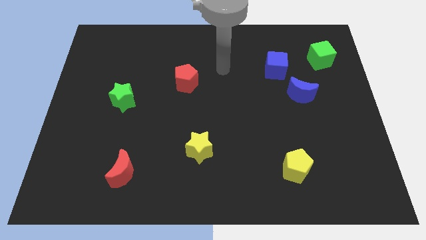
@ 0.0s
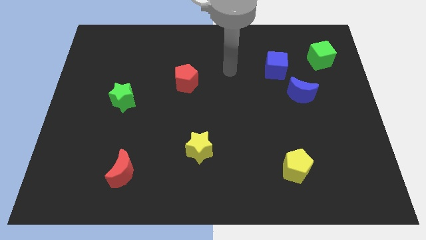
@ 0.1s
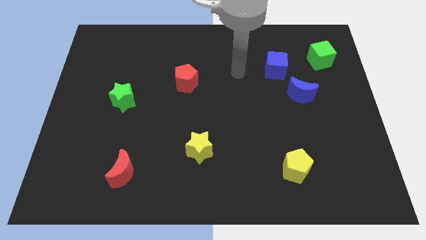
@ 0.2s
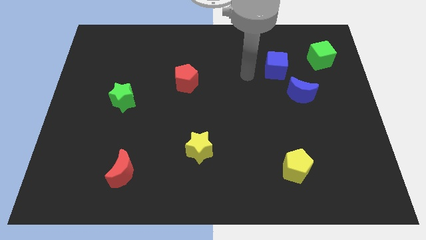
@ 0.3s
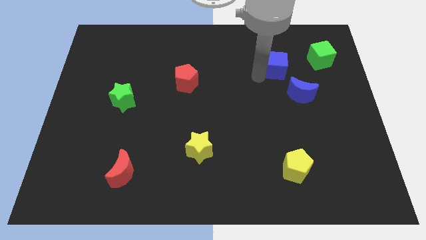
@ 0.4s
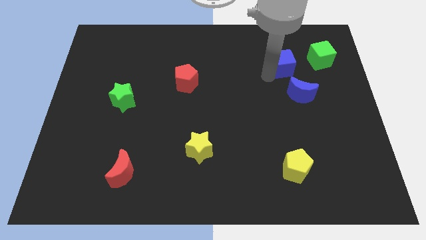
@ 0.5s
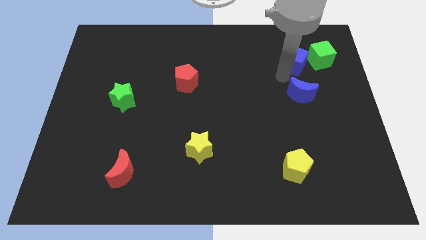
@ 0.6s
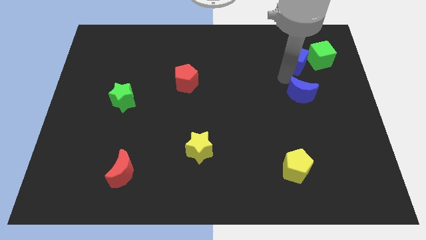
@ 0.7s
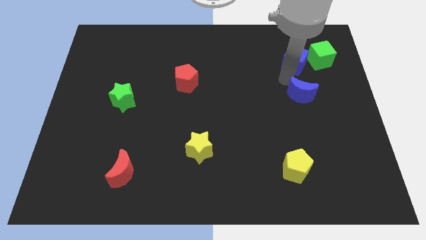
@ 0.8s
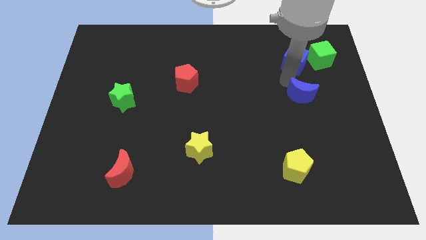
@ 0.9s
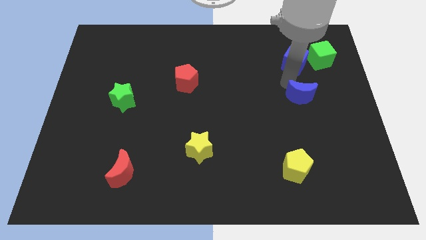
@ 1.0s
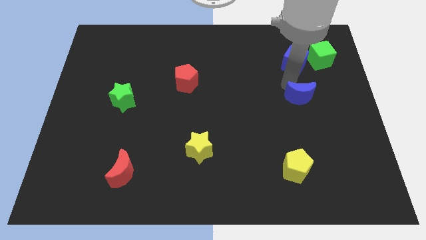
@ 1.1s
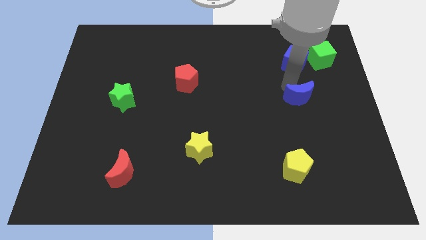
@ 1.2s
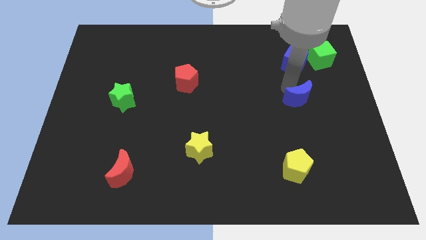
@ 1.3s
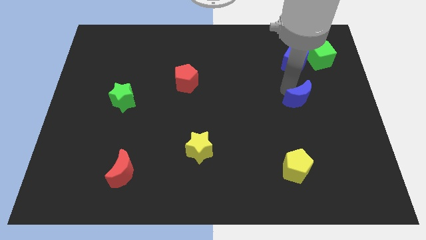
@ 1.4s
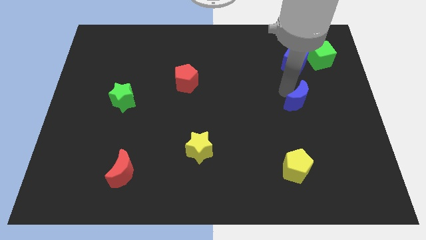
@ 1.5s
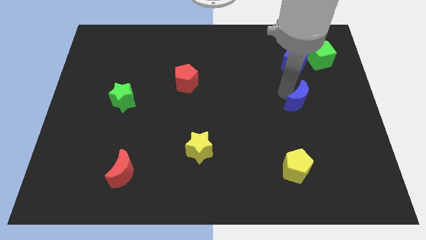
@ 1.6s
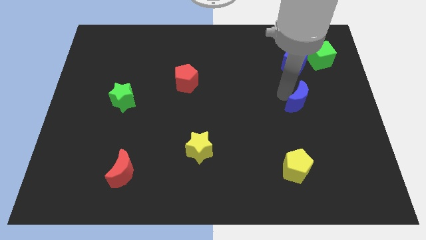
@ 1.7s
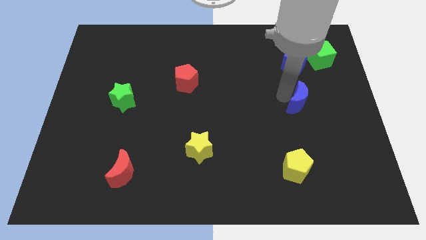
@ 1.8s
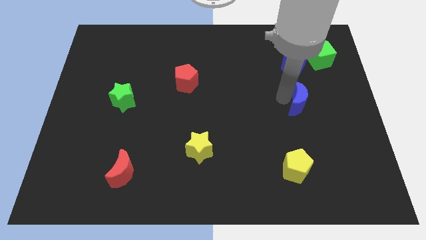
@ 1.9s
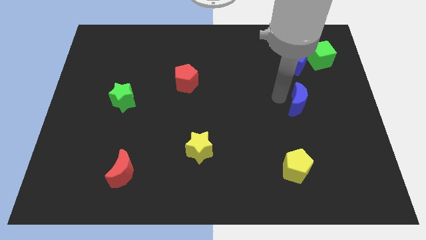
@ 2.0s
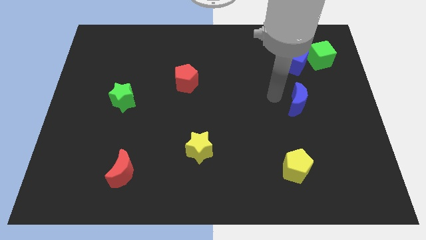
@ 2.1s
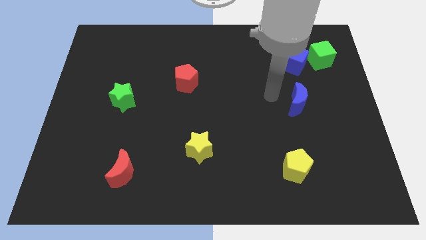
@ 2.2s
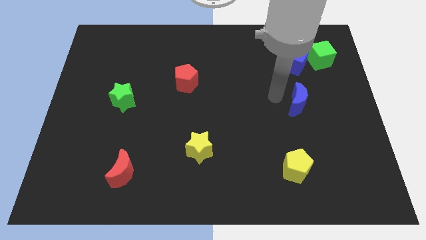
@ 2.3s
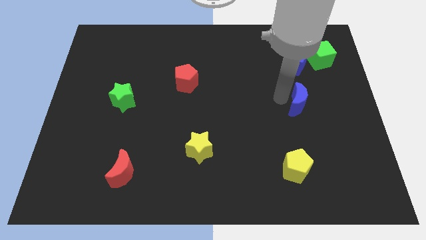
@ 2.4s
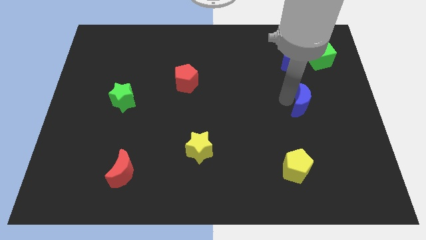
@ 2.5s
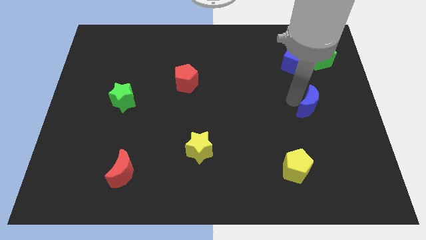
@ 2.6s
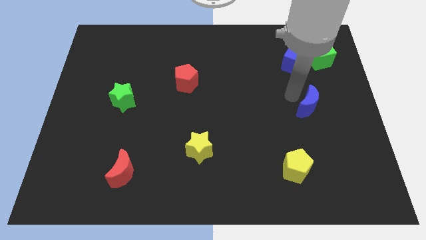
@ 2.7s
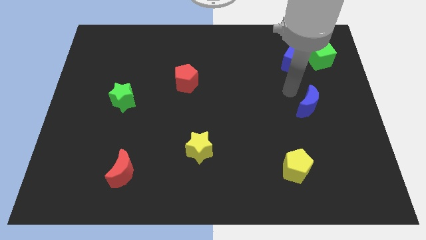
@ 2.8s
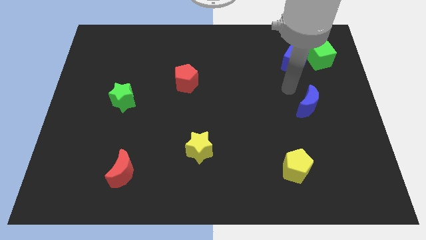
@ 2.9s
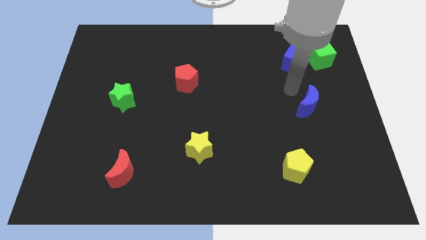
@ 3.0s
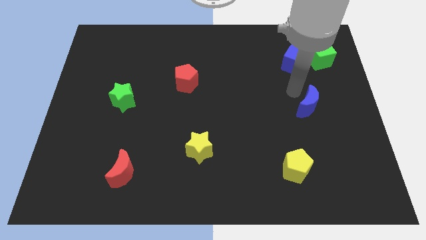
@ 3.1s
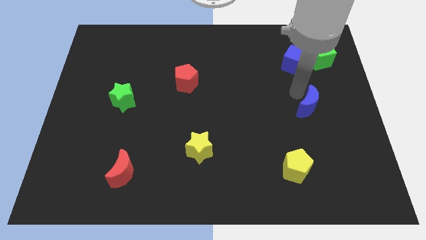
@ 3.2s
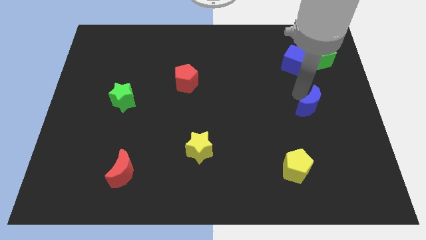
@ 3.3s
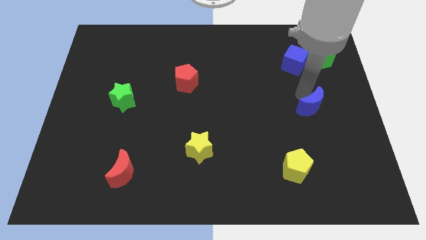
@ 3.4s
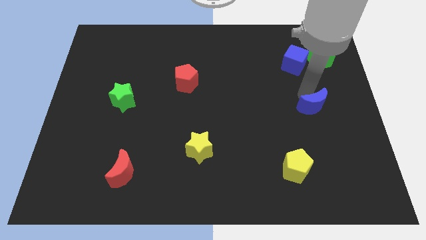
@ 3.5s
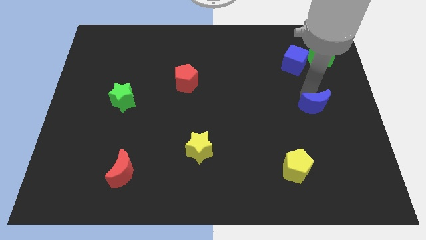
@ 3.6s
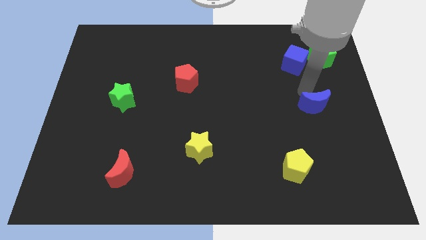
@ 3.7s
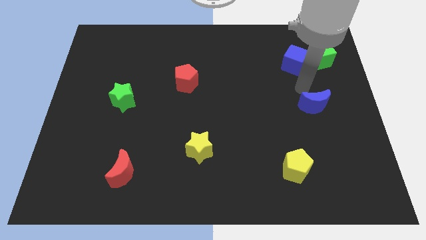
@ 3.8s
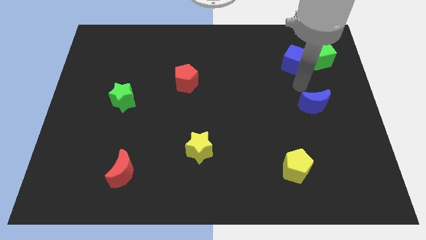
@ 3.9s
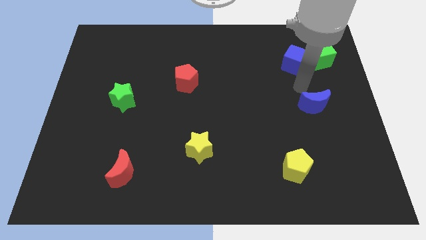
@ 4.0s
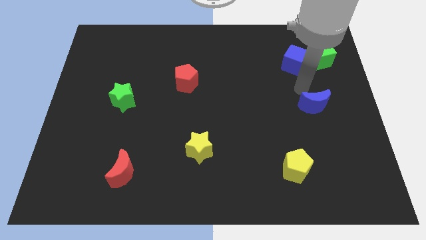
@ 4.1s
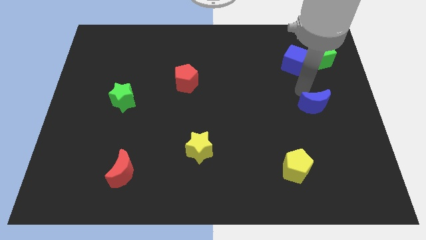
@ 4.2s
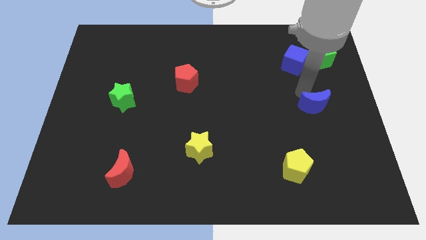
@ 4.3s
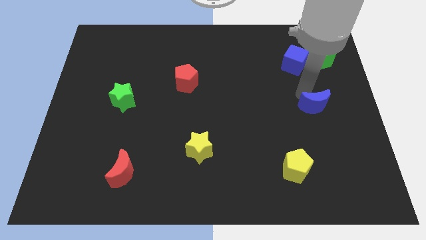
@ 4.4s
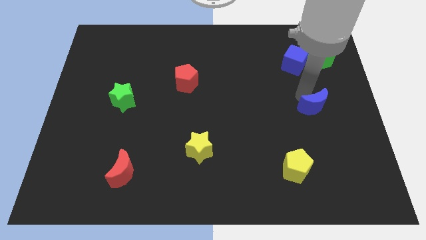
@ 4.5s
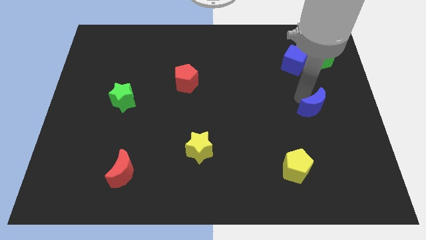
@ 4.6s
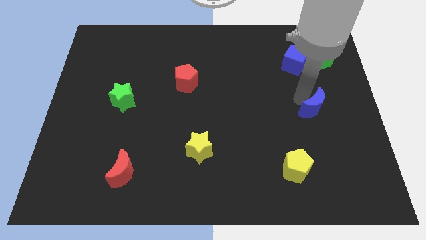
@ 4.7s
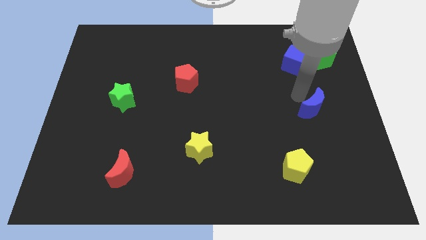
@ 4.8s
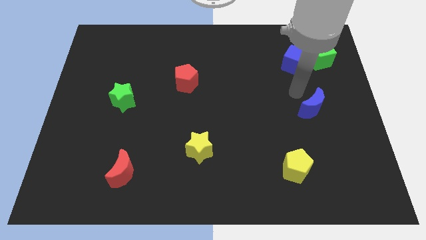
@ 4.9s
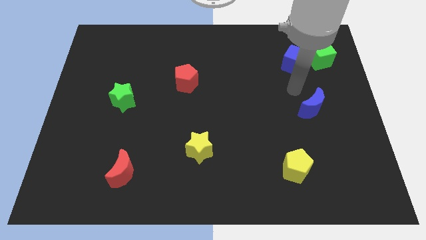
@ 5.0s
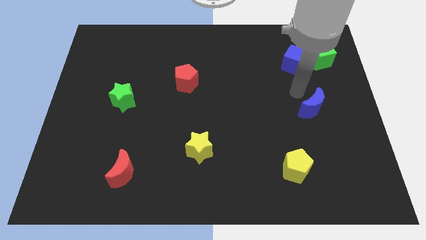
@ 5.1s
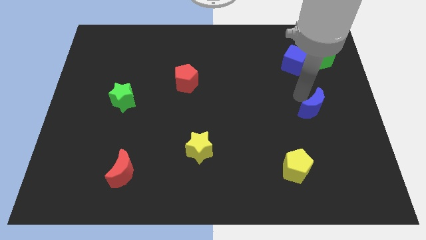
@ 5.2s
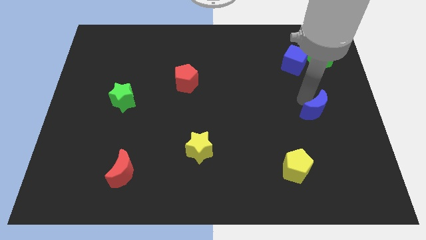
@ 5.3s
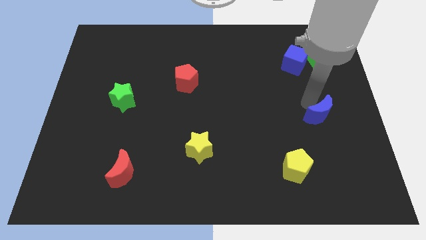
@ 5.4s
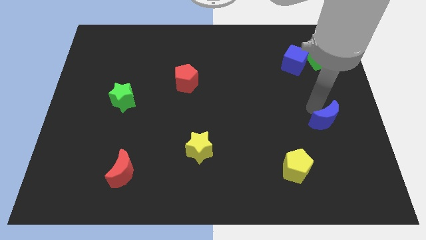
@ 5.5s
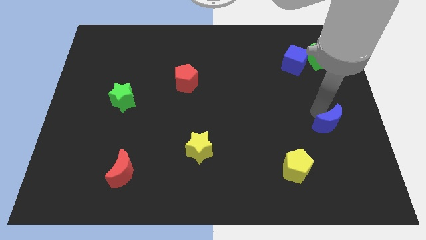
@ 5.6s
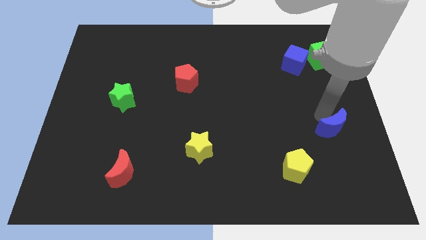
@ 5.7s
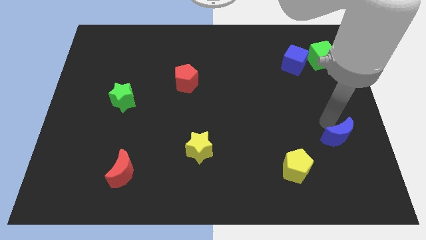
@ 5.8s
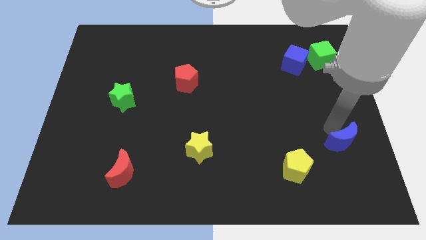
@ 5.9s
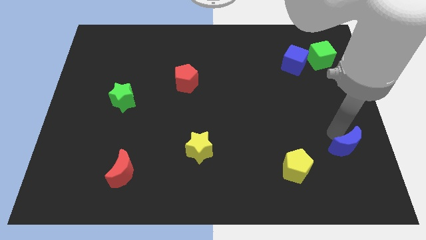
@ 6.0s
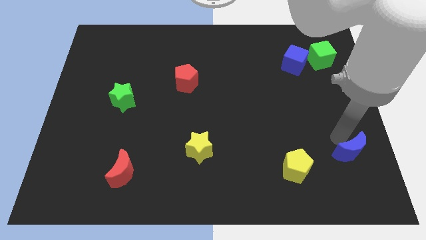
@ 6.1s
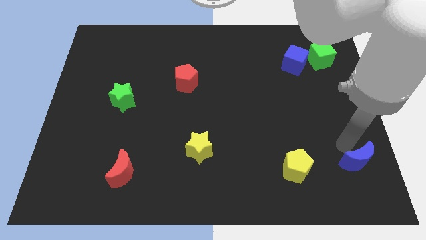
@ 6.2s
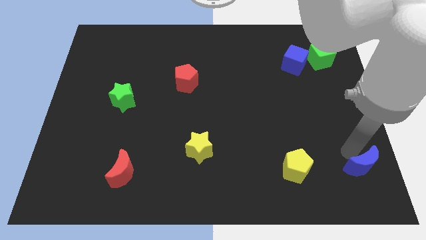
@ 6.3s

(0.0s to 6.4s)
put the blue moon to the lower right corner

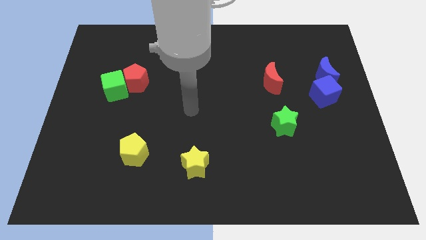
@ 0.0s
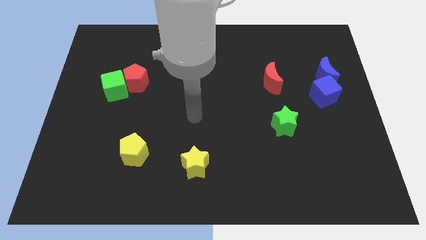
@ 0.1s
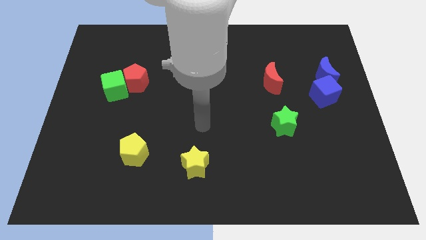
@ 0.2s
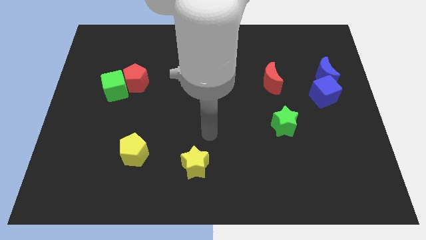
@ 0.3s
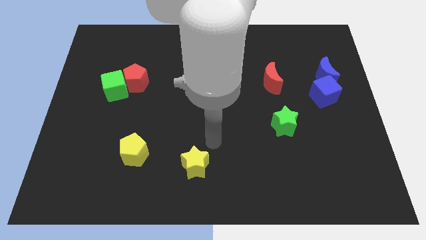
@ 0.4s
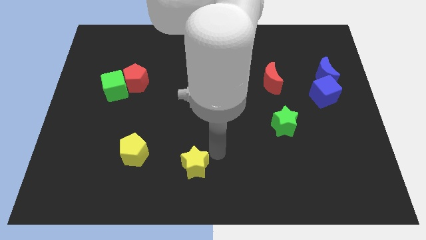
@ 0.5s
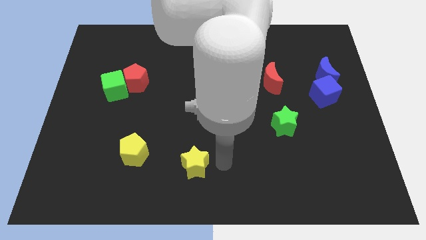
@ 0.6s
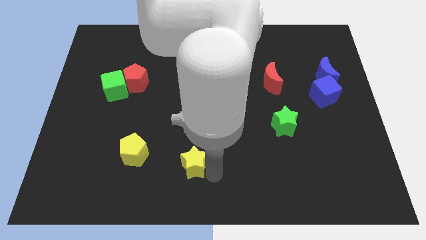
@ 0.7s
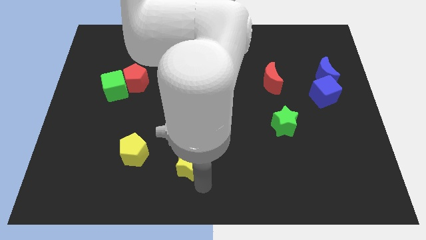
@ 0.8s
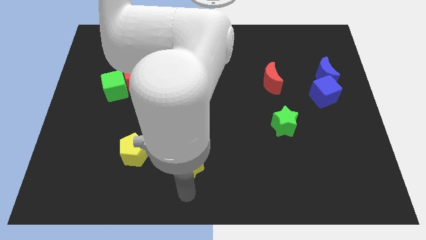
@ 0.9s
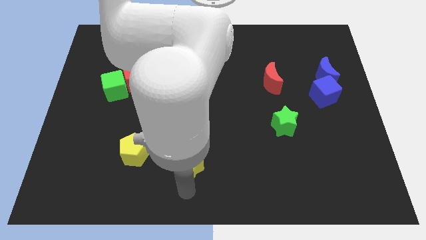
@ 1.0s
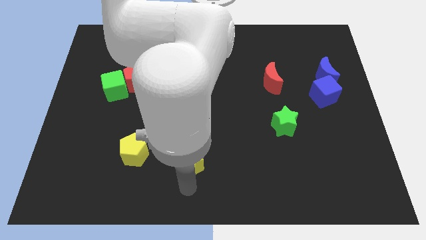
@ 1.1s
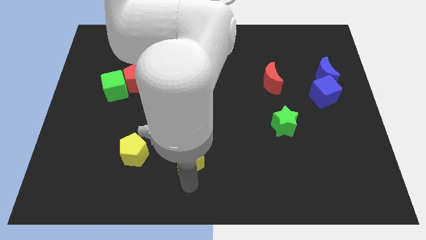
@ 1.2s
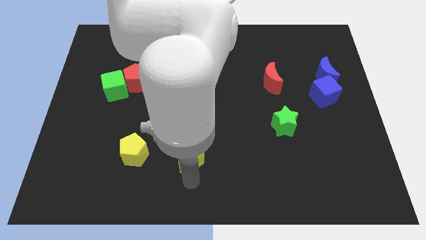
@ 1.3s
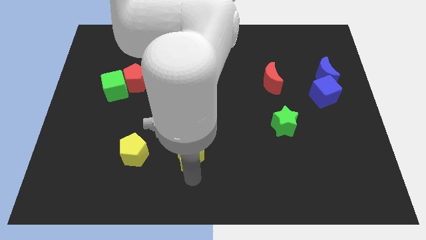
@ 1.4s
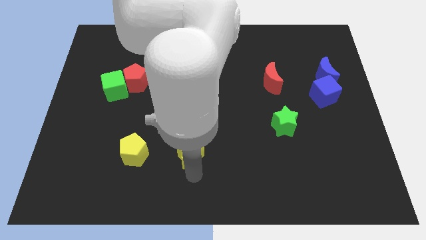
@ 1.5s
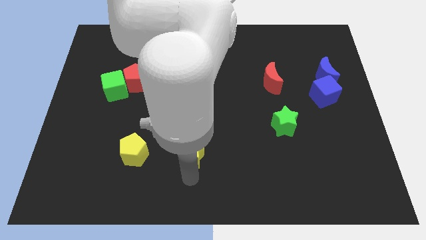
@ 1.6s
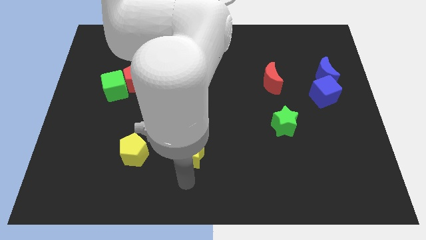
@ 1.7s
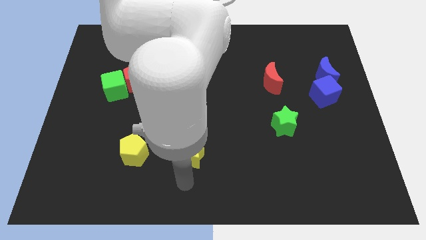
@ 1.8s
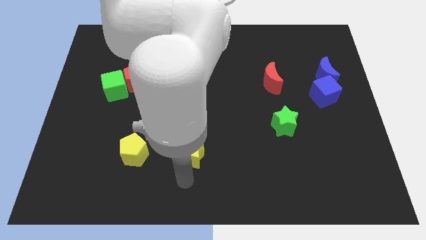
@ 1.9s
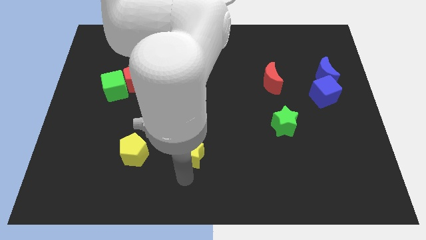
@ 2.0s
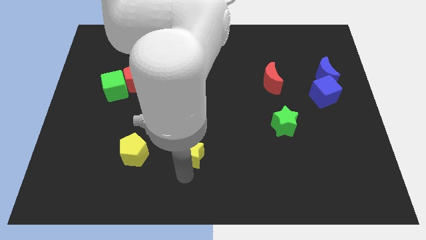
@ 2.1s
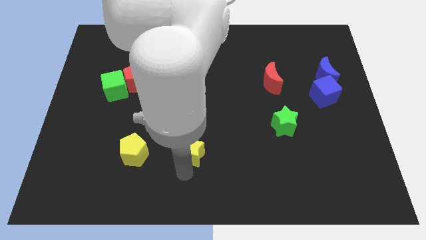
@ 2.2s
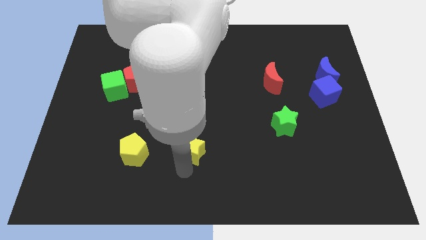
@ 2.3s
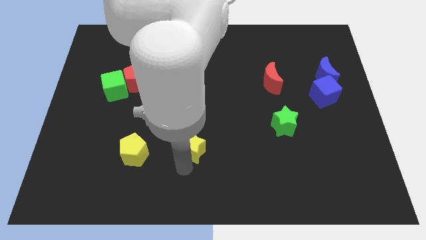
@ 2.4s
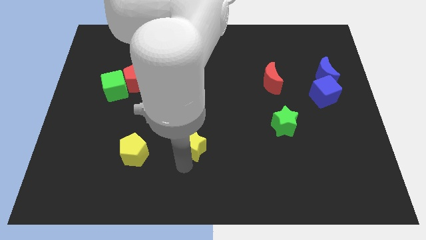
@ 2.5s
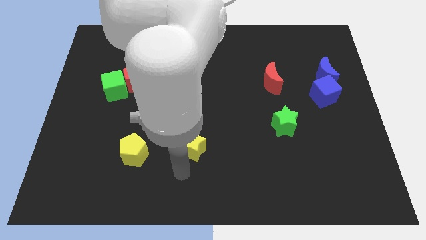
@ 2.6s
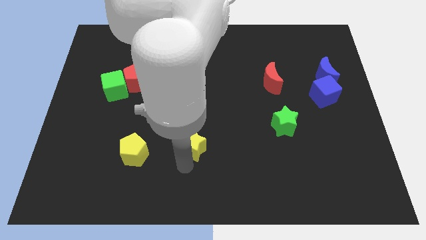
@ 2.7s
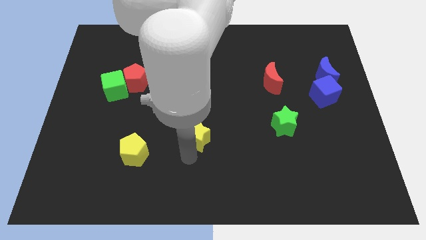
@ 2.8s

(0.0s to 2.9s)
put the yellow star to the middle
